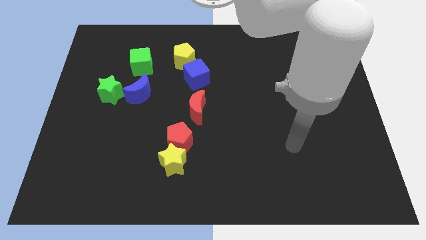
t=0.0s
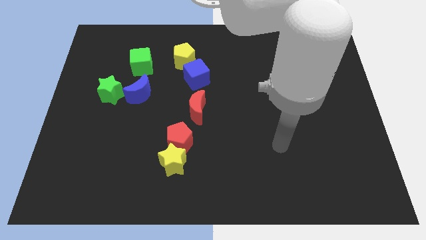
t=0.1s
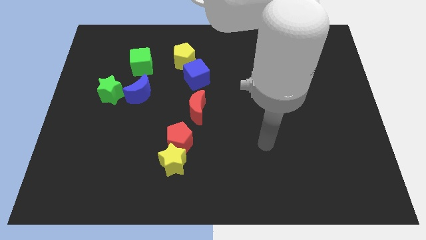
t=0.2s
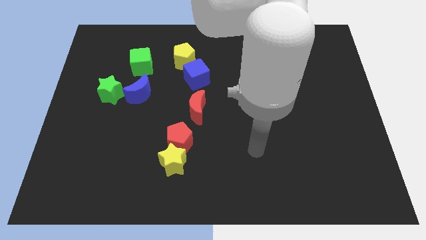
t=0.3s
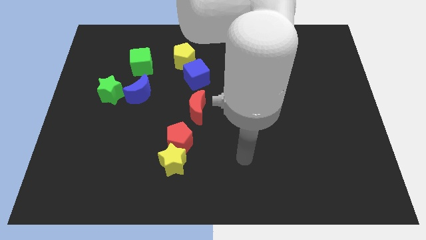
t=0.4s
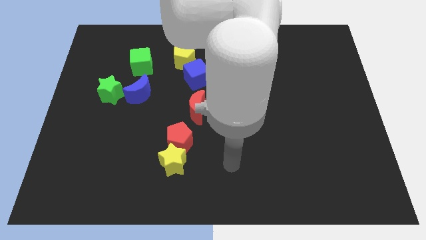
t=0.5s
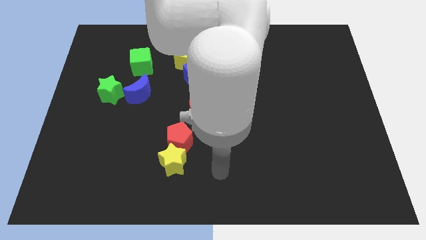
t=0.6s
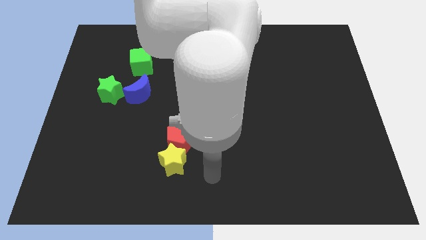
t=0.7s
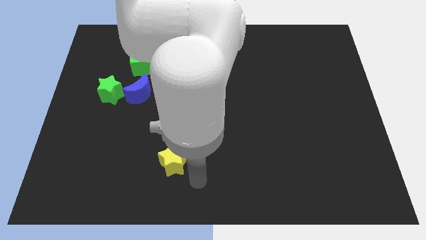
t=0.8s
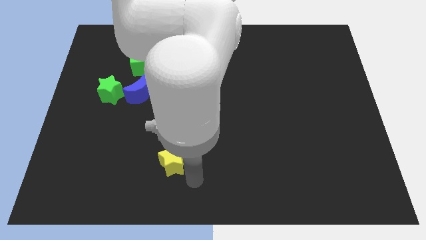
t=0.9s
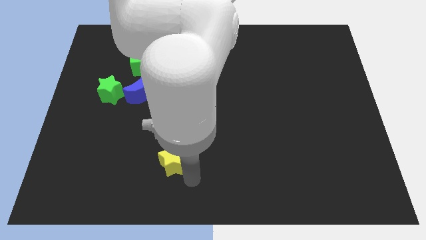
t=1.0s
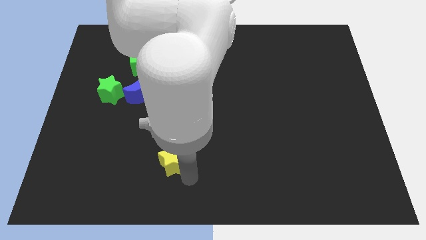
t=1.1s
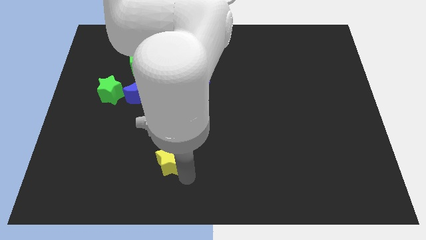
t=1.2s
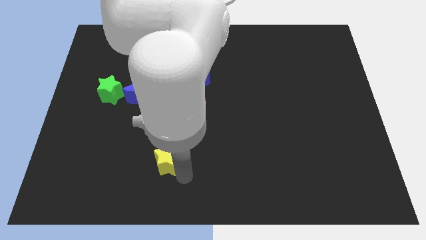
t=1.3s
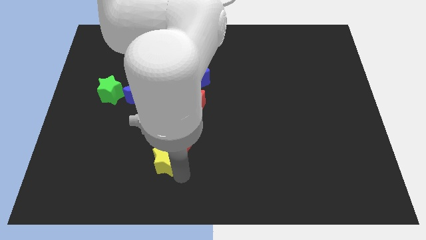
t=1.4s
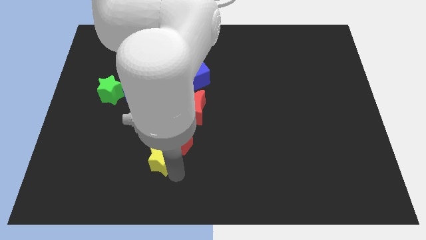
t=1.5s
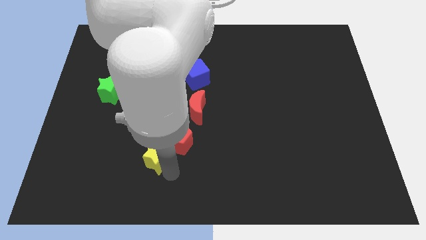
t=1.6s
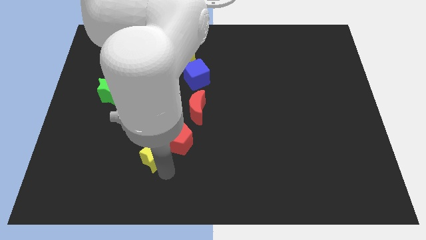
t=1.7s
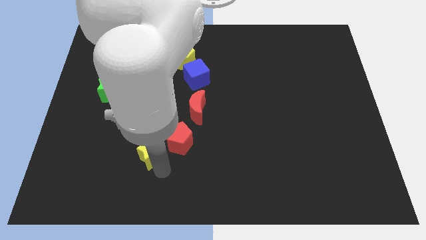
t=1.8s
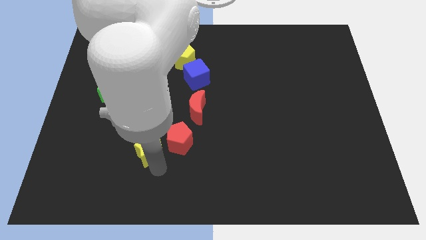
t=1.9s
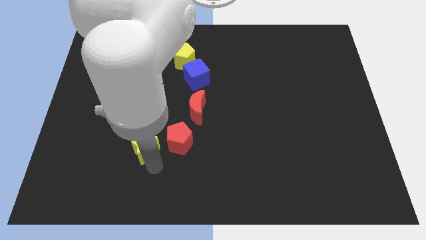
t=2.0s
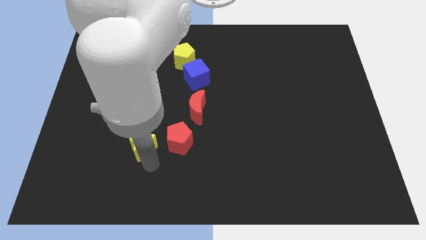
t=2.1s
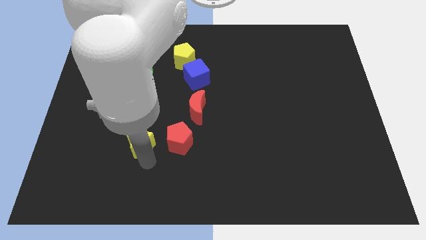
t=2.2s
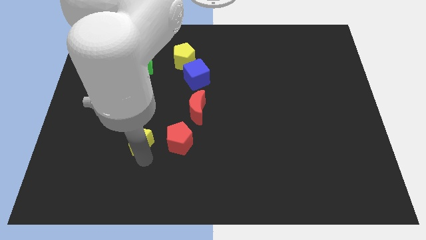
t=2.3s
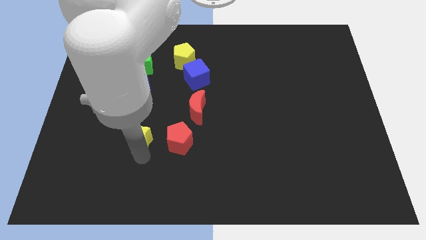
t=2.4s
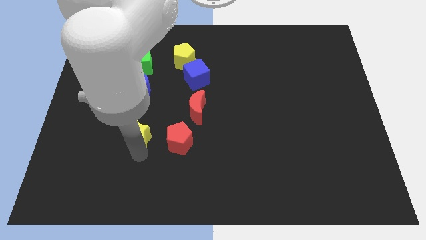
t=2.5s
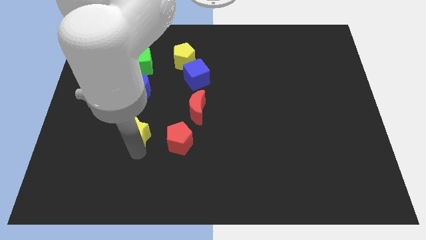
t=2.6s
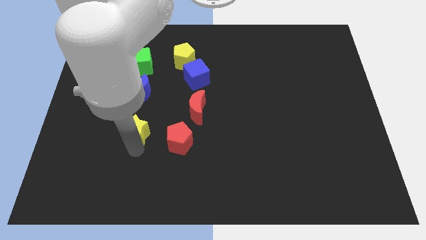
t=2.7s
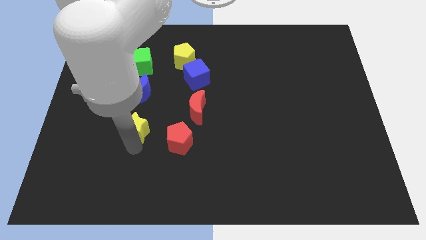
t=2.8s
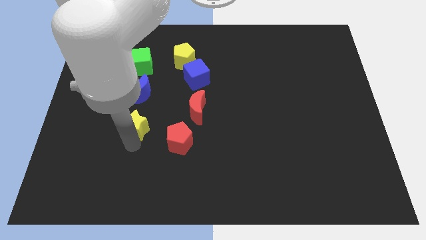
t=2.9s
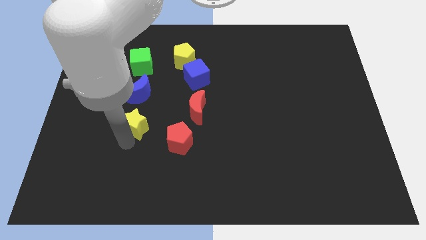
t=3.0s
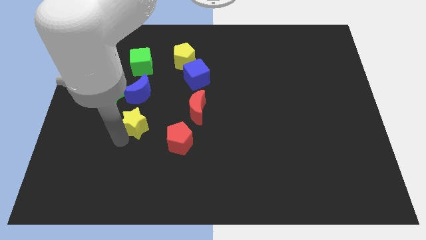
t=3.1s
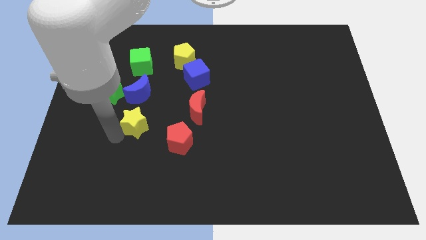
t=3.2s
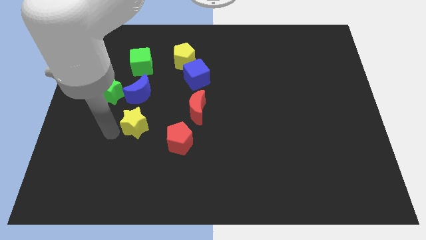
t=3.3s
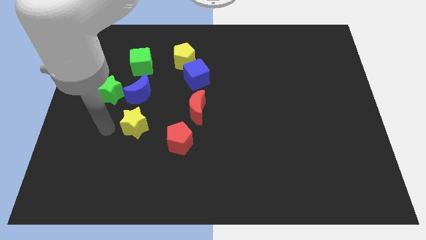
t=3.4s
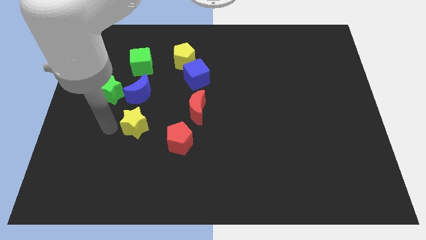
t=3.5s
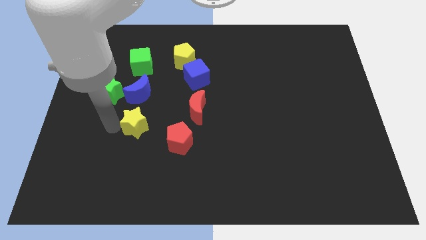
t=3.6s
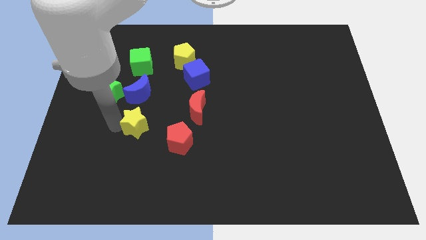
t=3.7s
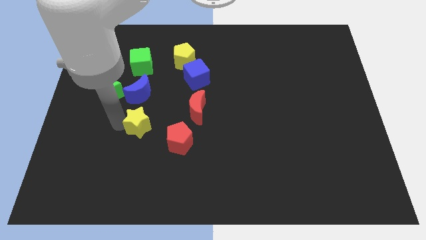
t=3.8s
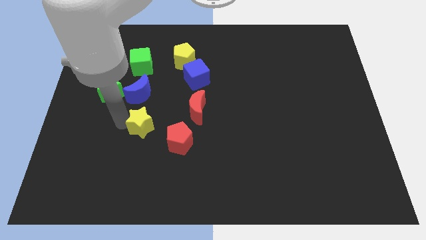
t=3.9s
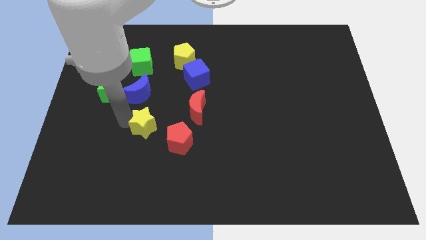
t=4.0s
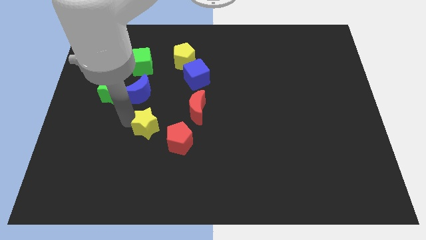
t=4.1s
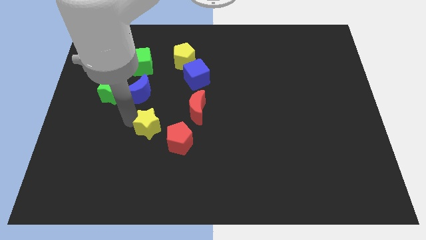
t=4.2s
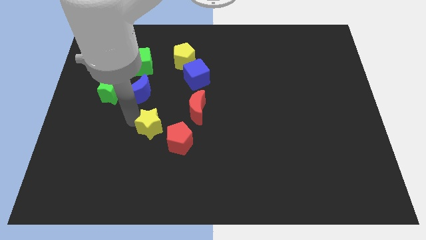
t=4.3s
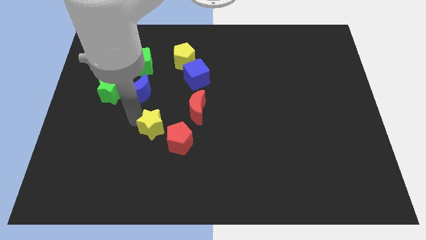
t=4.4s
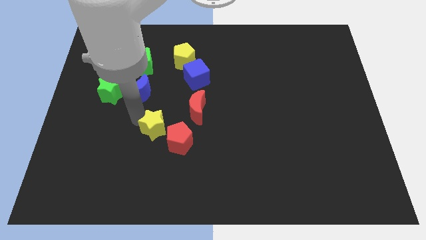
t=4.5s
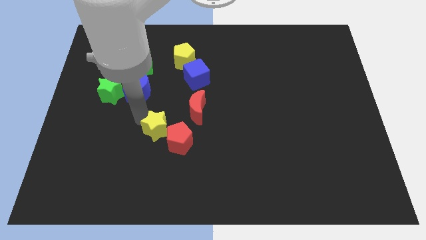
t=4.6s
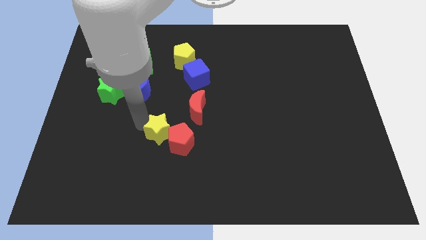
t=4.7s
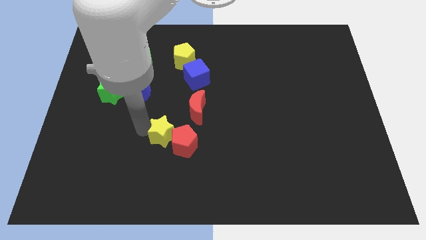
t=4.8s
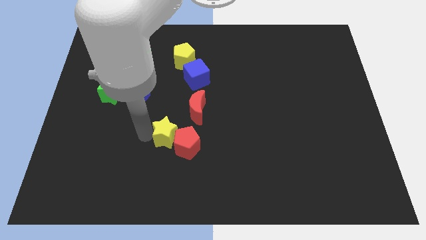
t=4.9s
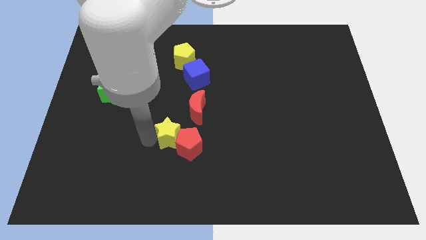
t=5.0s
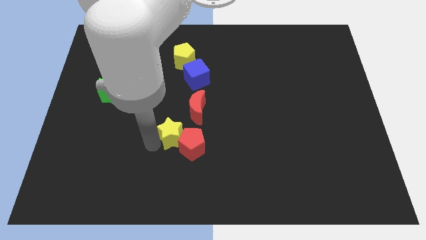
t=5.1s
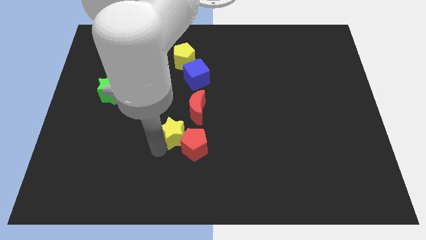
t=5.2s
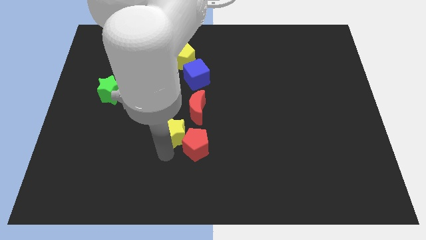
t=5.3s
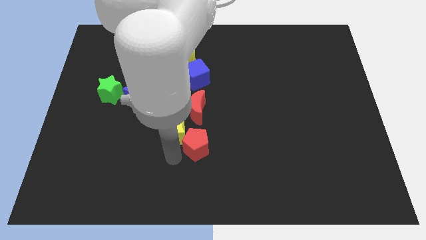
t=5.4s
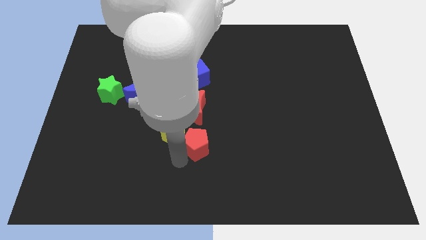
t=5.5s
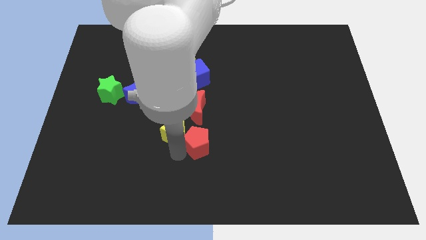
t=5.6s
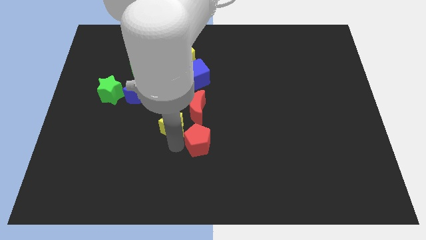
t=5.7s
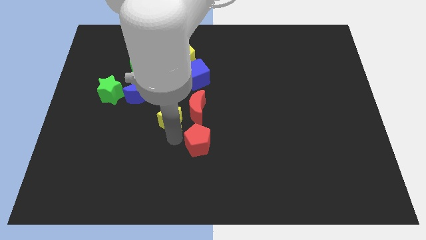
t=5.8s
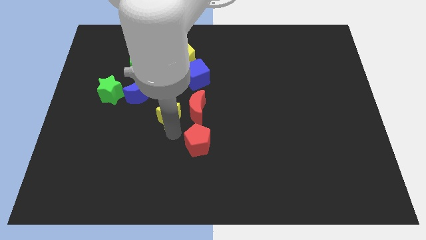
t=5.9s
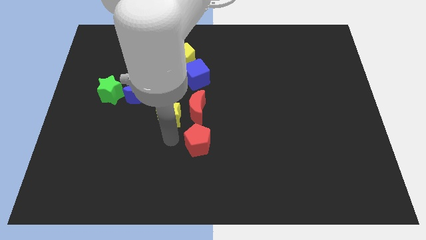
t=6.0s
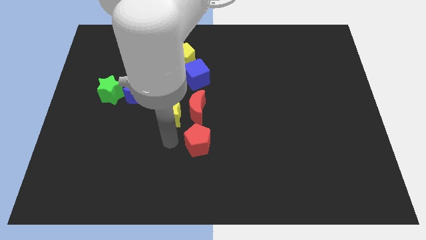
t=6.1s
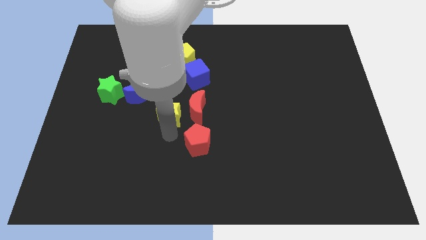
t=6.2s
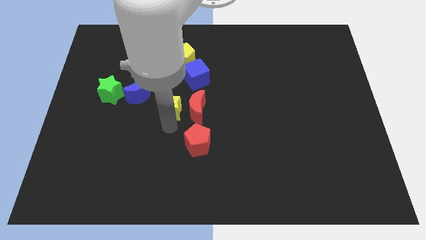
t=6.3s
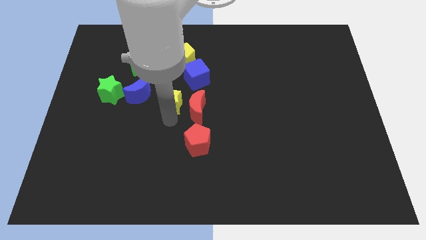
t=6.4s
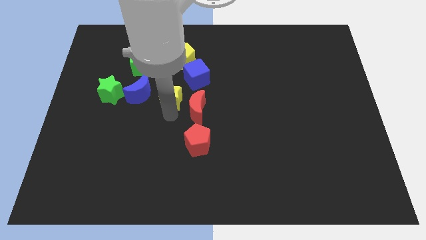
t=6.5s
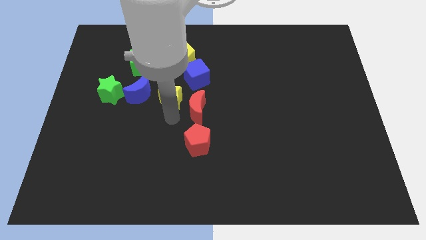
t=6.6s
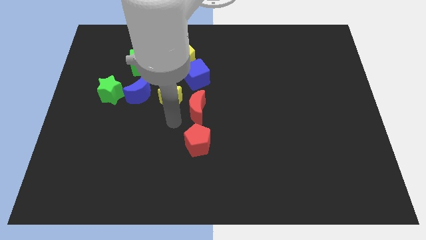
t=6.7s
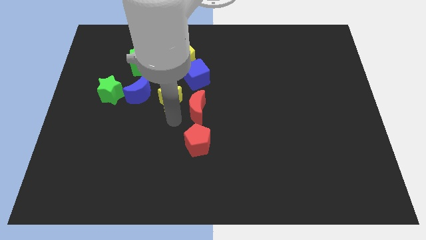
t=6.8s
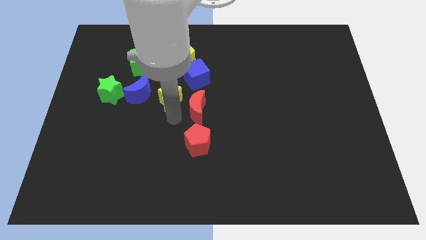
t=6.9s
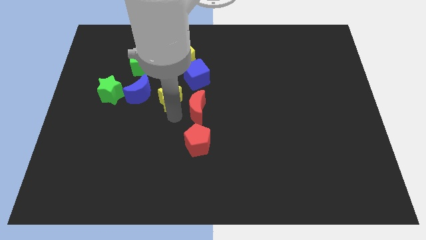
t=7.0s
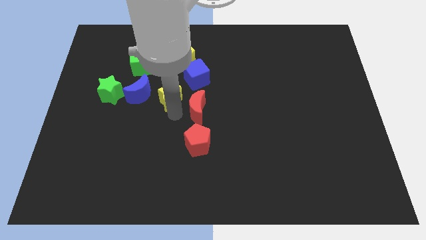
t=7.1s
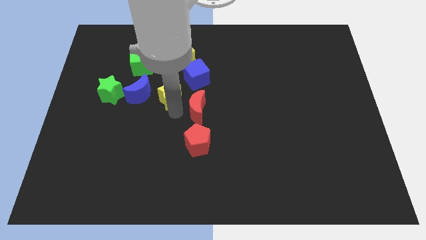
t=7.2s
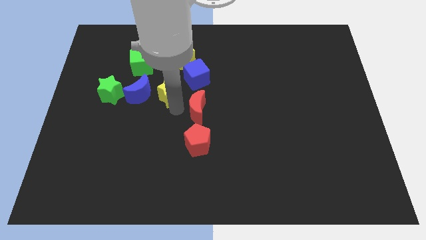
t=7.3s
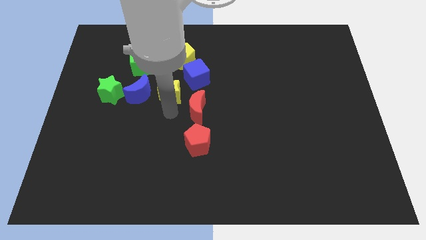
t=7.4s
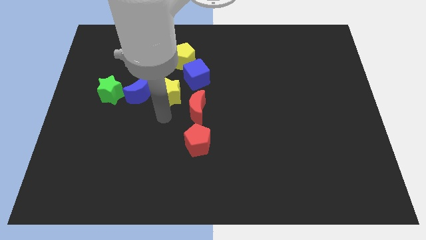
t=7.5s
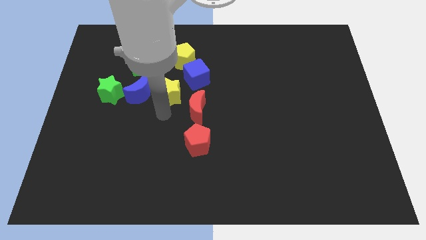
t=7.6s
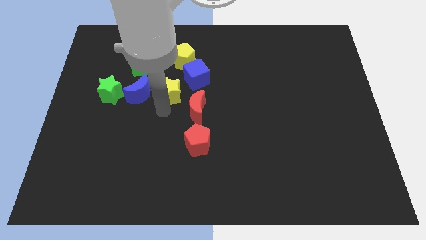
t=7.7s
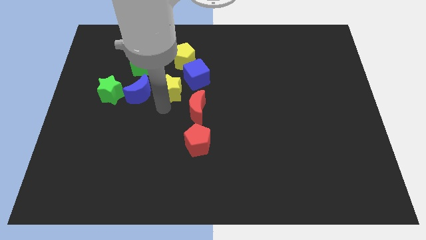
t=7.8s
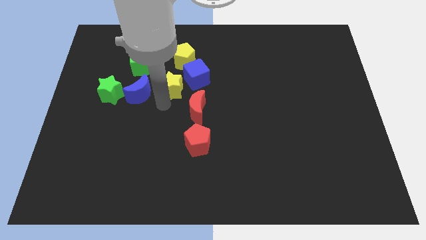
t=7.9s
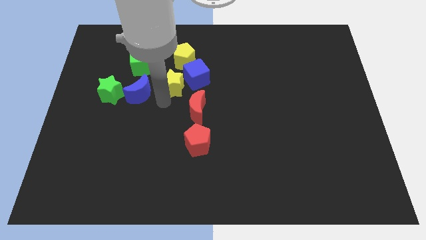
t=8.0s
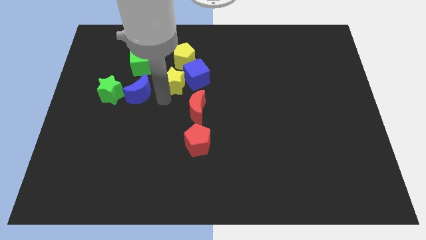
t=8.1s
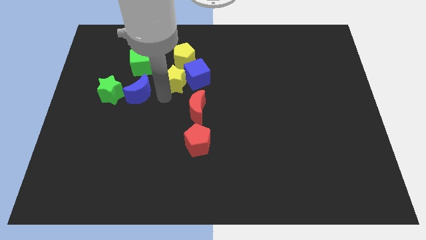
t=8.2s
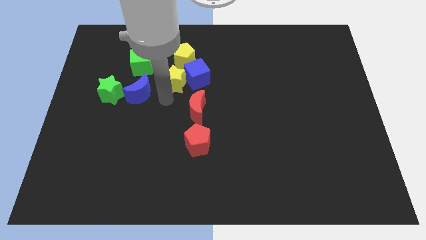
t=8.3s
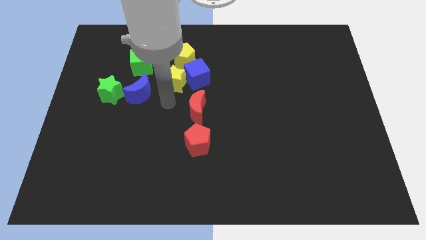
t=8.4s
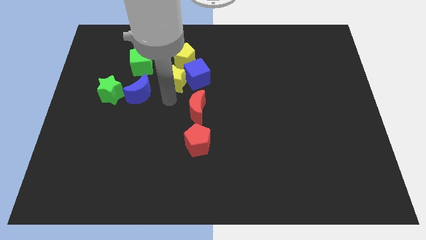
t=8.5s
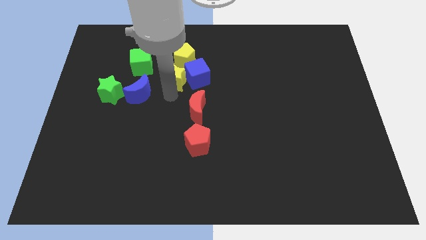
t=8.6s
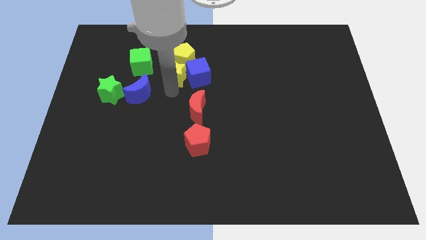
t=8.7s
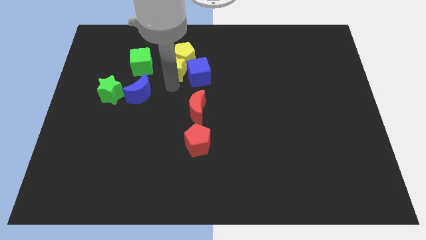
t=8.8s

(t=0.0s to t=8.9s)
push the yellow star to the yellow pentagon
